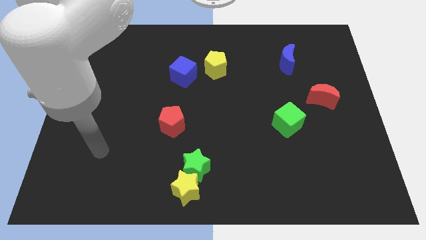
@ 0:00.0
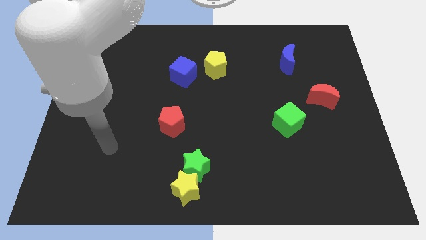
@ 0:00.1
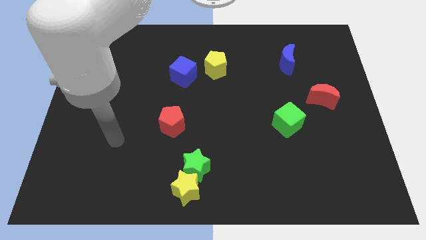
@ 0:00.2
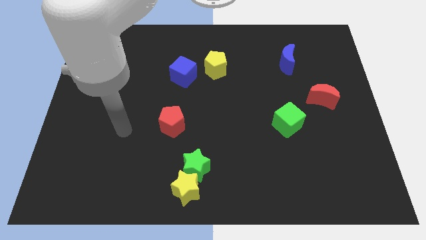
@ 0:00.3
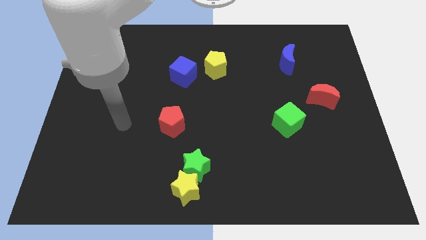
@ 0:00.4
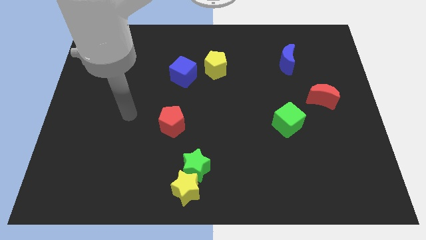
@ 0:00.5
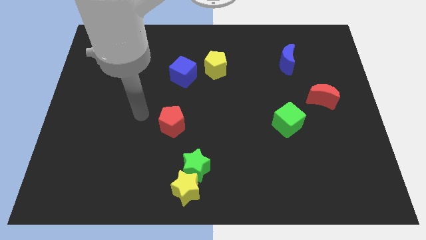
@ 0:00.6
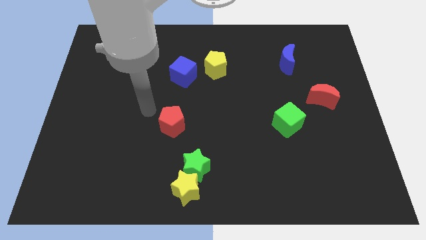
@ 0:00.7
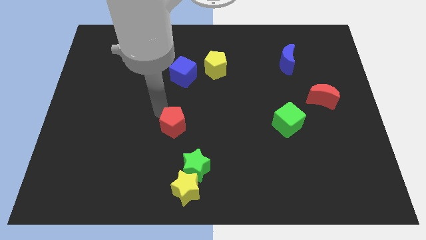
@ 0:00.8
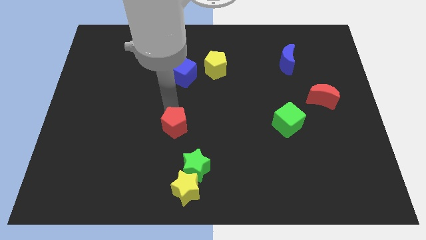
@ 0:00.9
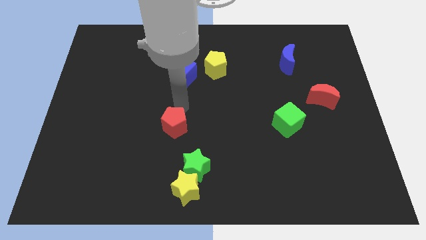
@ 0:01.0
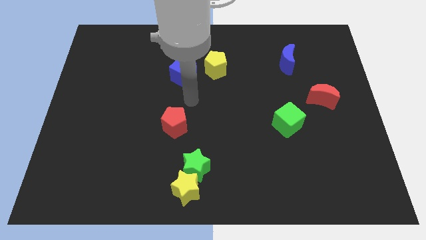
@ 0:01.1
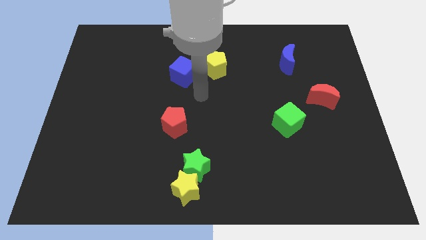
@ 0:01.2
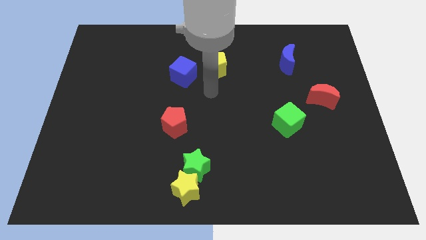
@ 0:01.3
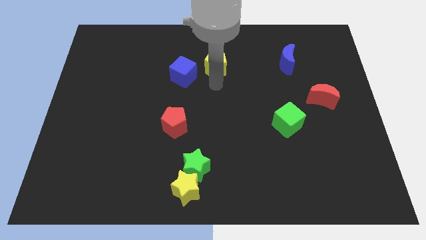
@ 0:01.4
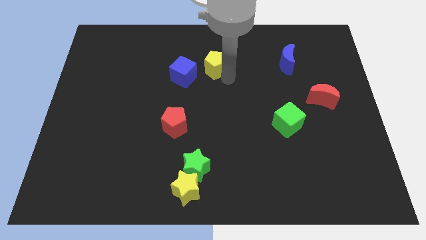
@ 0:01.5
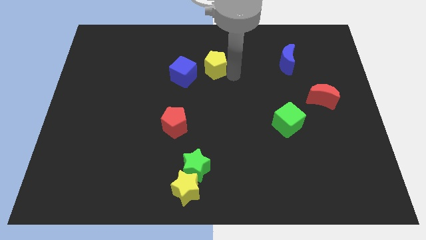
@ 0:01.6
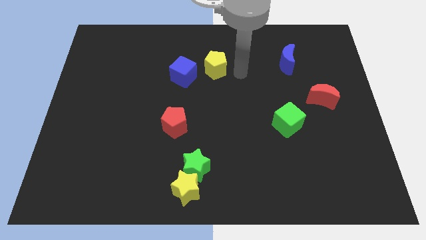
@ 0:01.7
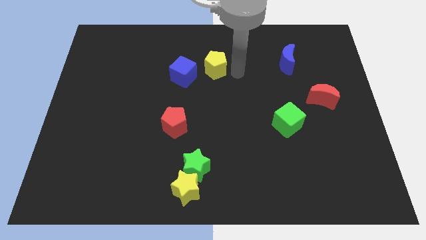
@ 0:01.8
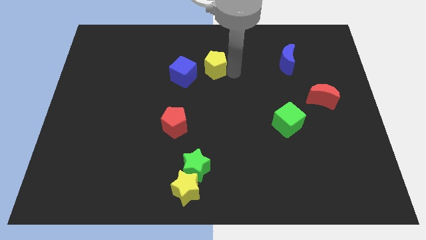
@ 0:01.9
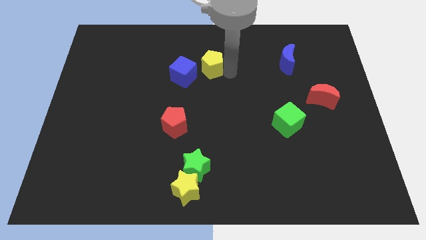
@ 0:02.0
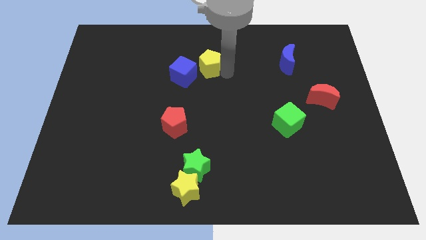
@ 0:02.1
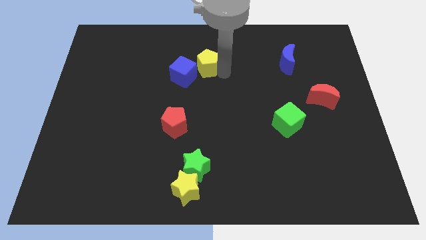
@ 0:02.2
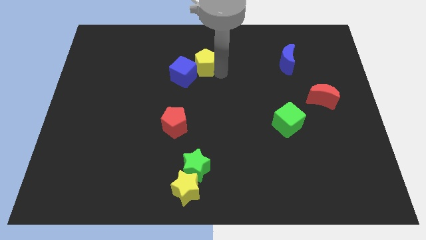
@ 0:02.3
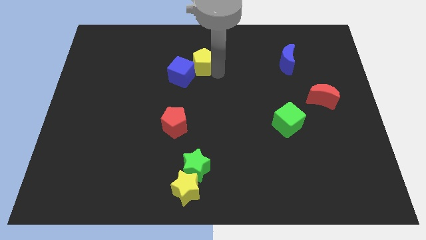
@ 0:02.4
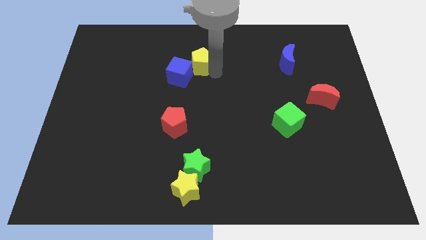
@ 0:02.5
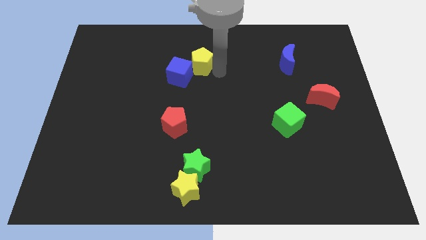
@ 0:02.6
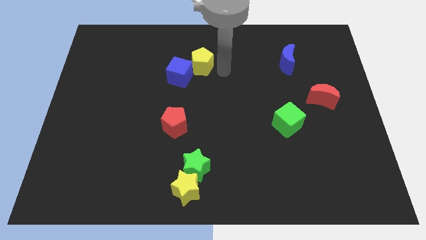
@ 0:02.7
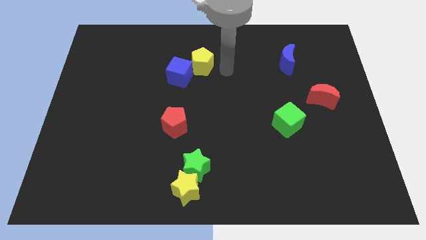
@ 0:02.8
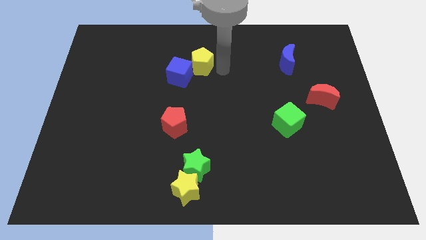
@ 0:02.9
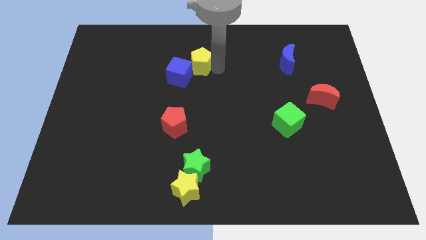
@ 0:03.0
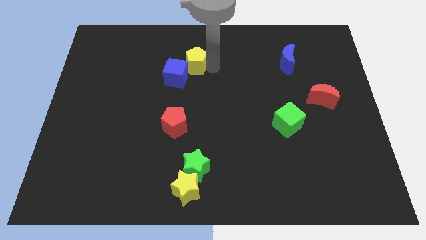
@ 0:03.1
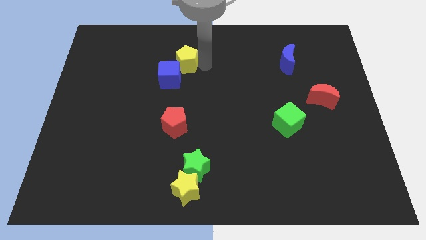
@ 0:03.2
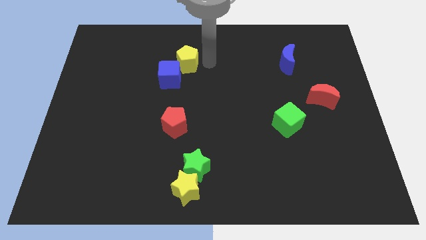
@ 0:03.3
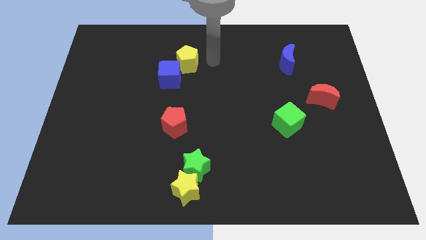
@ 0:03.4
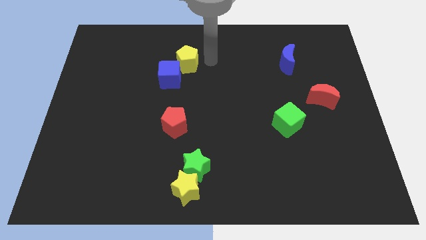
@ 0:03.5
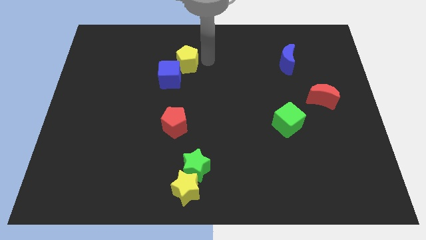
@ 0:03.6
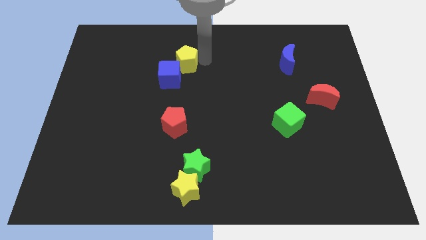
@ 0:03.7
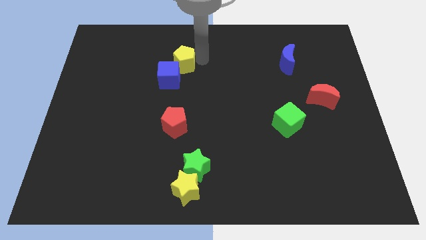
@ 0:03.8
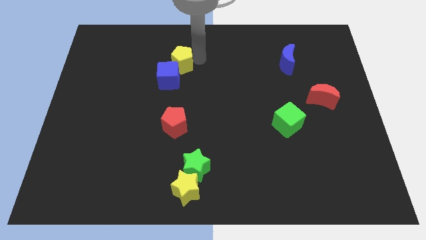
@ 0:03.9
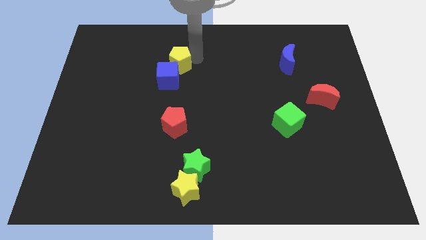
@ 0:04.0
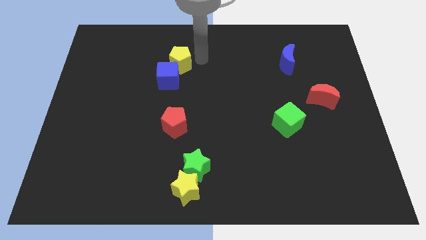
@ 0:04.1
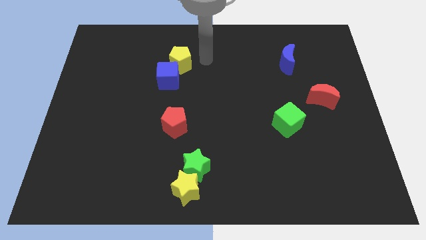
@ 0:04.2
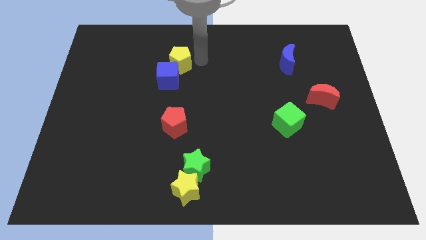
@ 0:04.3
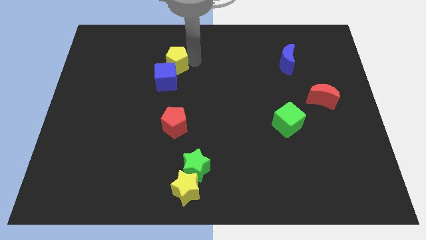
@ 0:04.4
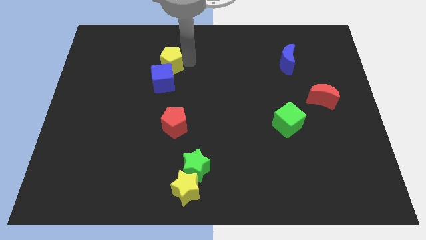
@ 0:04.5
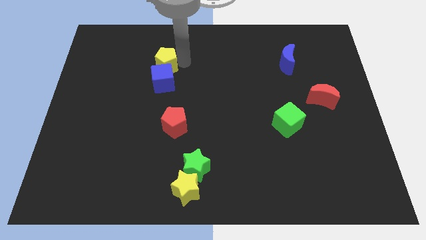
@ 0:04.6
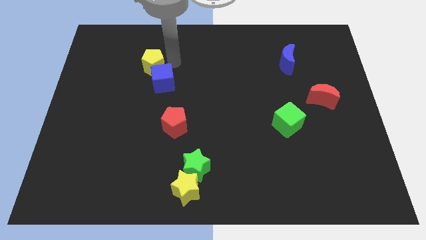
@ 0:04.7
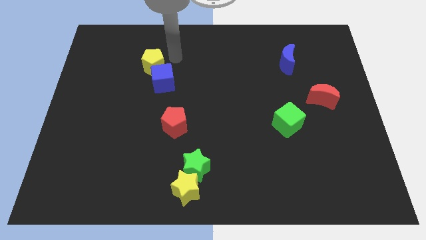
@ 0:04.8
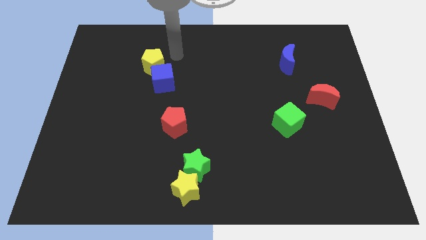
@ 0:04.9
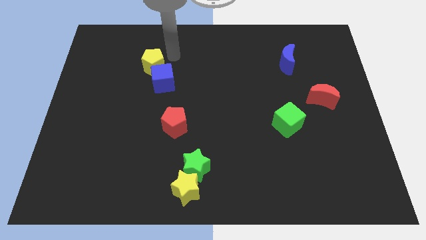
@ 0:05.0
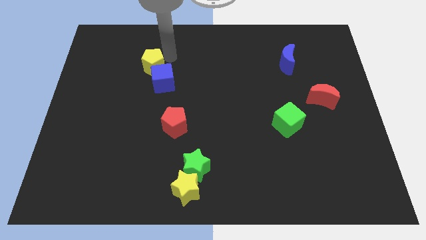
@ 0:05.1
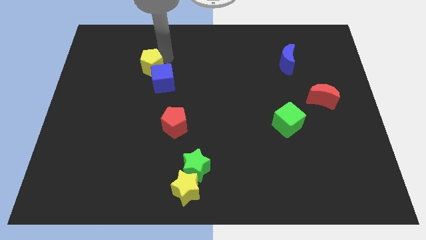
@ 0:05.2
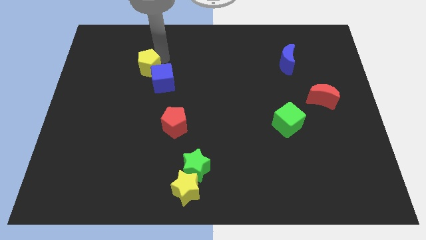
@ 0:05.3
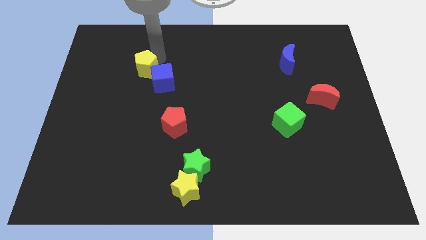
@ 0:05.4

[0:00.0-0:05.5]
move the yellow pentagon to the left of the blue cube

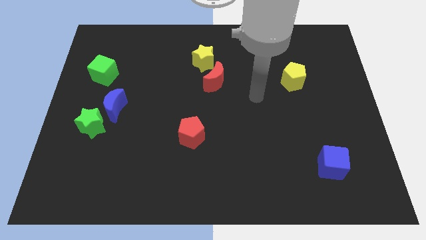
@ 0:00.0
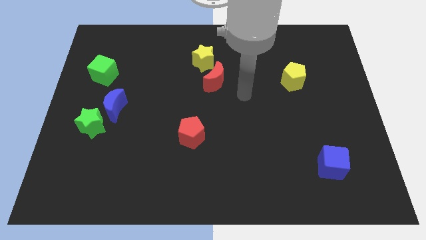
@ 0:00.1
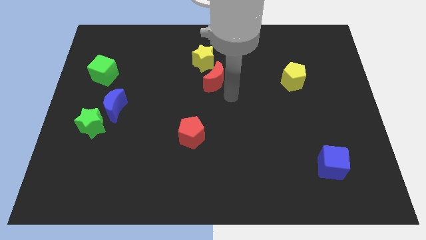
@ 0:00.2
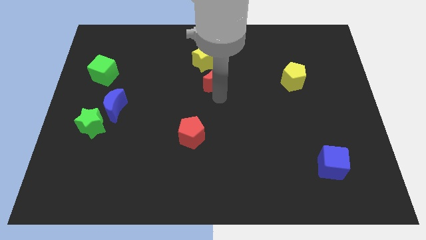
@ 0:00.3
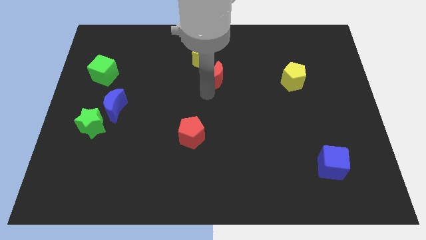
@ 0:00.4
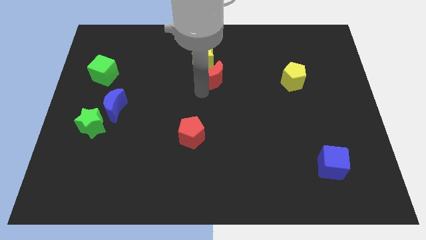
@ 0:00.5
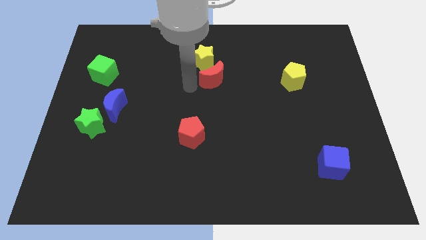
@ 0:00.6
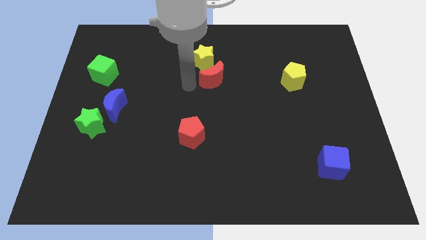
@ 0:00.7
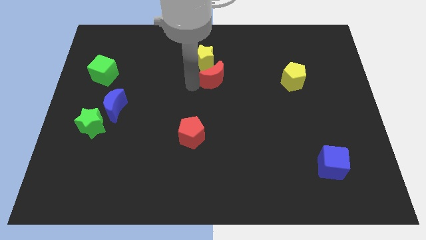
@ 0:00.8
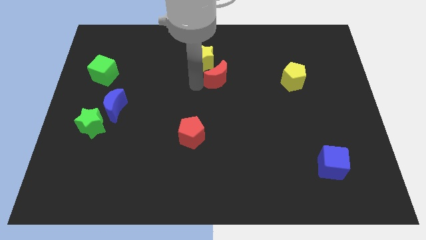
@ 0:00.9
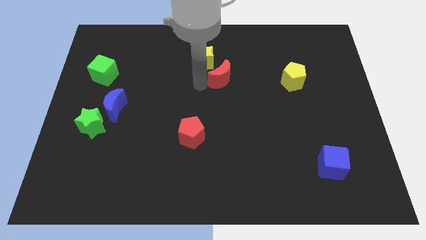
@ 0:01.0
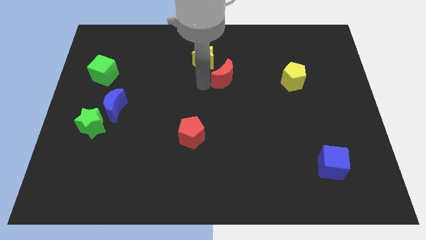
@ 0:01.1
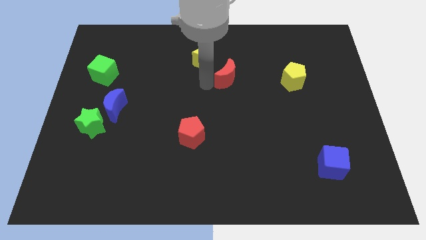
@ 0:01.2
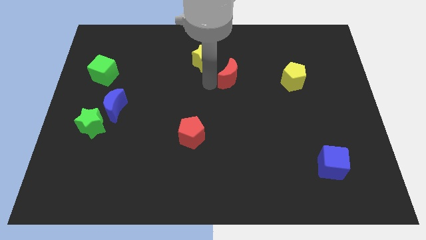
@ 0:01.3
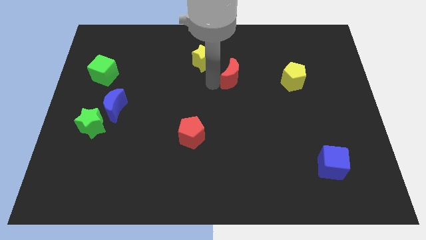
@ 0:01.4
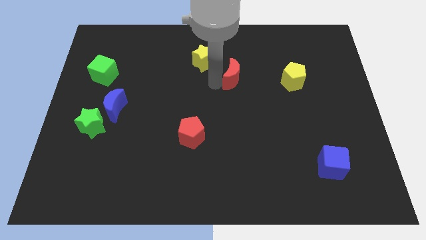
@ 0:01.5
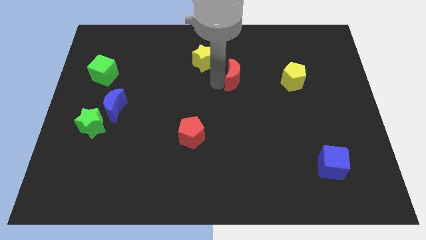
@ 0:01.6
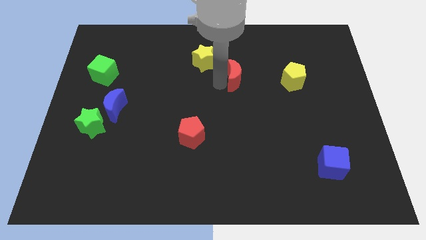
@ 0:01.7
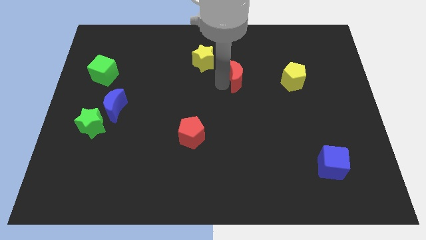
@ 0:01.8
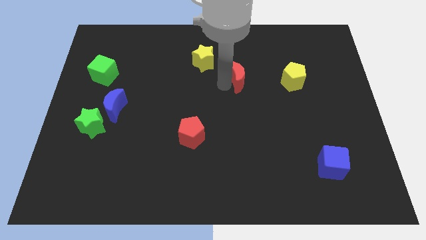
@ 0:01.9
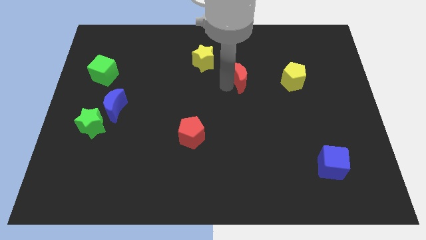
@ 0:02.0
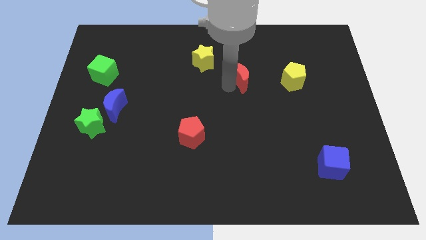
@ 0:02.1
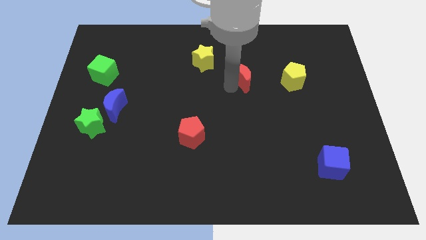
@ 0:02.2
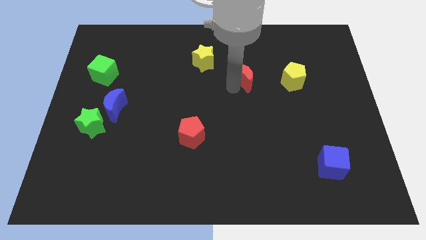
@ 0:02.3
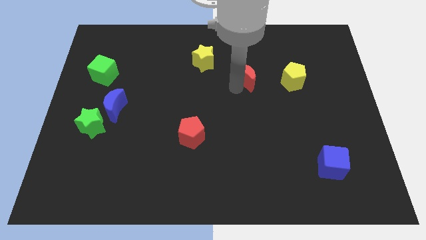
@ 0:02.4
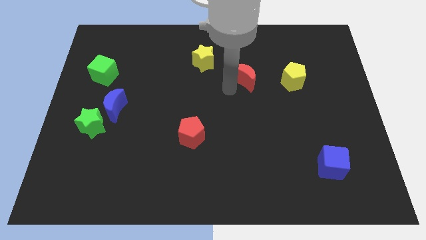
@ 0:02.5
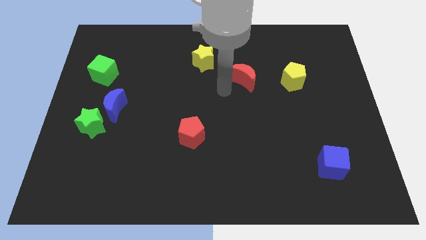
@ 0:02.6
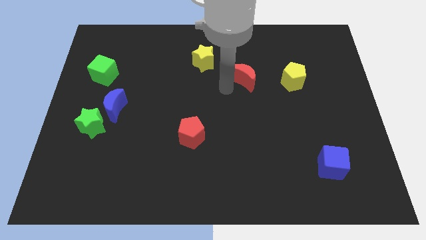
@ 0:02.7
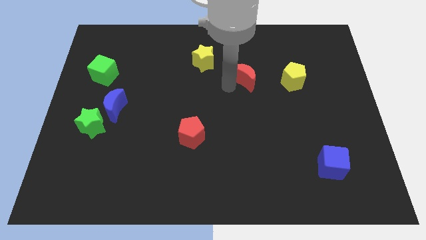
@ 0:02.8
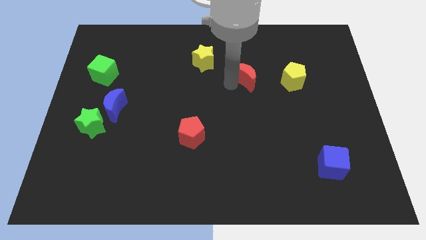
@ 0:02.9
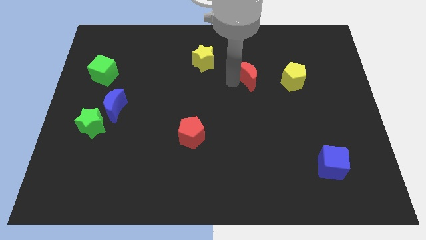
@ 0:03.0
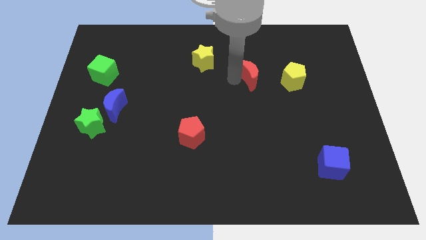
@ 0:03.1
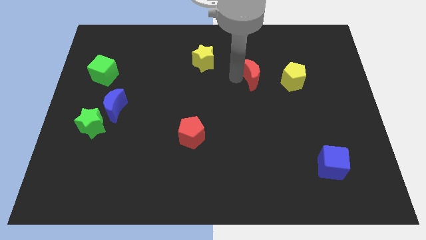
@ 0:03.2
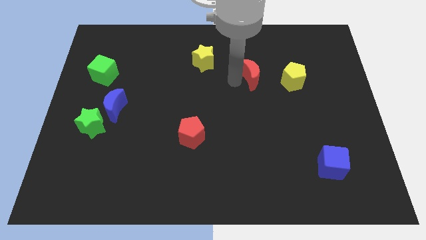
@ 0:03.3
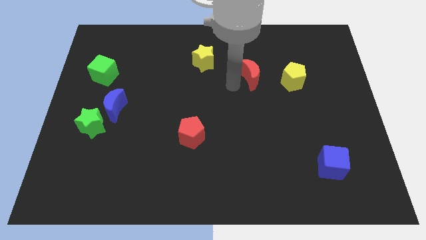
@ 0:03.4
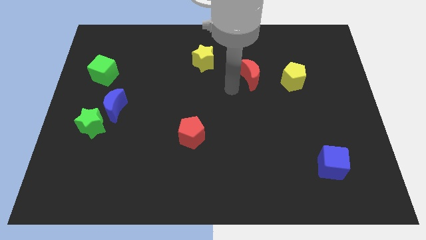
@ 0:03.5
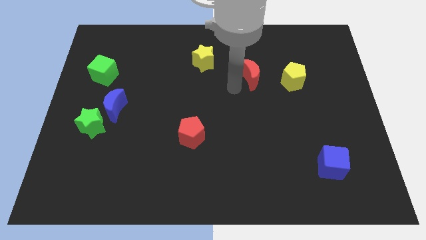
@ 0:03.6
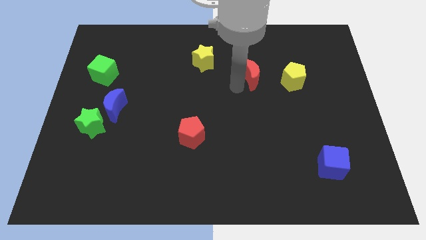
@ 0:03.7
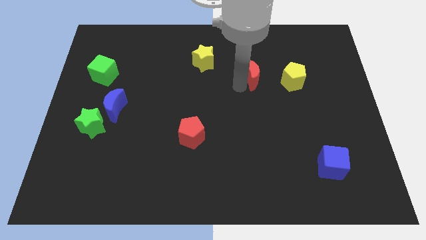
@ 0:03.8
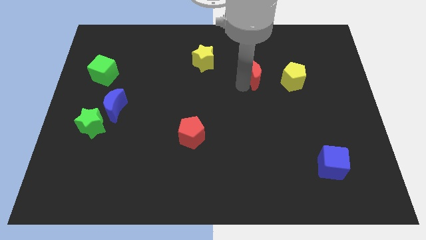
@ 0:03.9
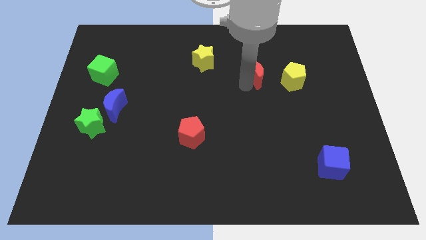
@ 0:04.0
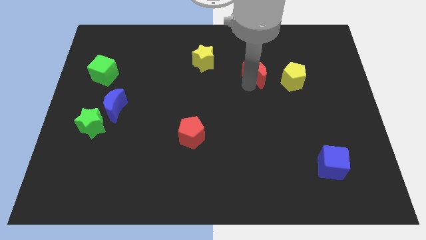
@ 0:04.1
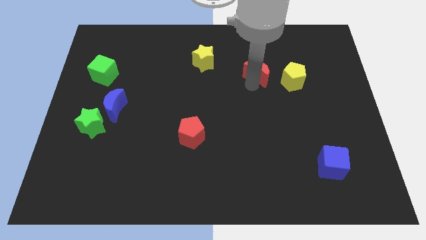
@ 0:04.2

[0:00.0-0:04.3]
put the red moon to the top left side of the yellow pentagon
